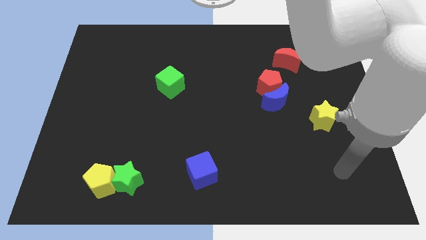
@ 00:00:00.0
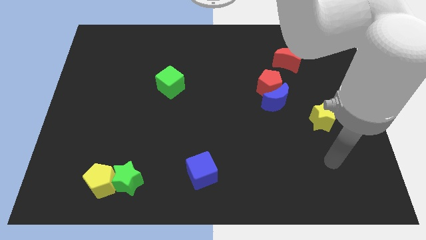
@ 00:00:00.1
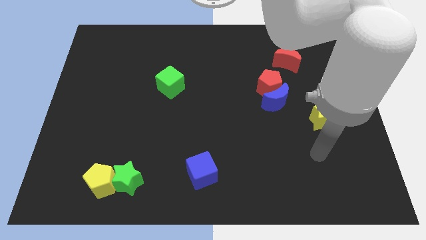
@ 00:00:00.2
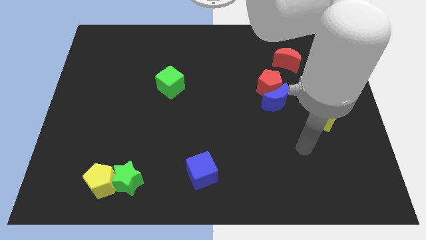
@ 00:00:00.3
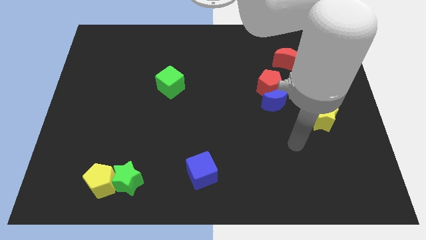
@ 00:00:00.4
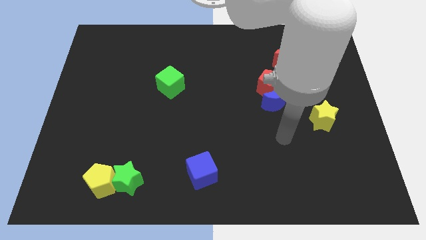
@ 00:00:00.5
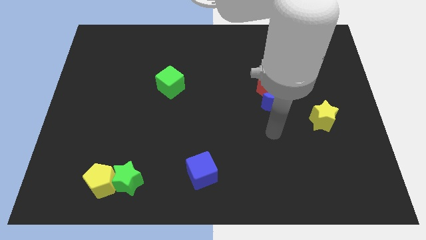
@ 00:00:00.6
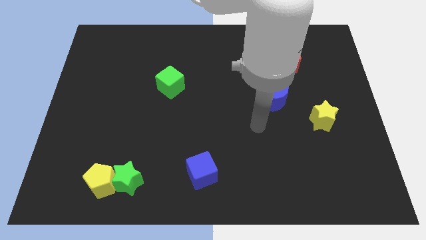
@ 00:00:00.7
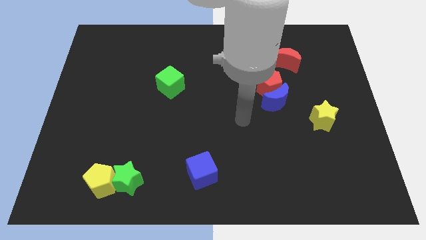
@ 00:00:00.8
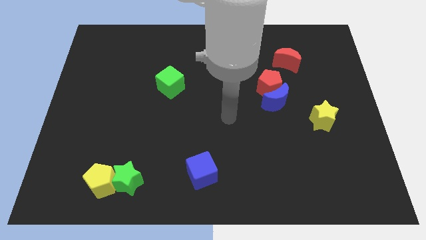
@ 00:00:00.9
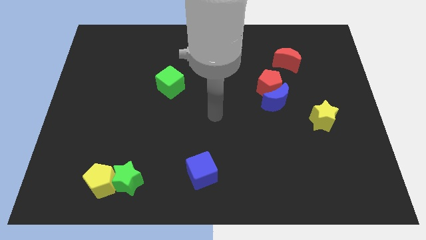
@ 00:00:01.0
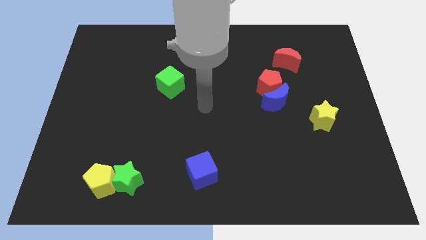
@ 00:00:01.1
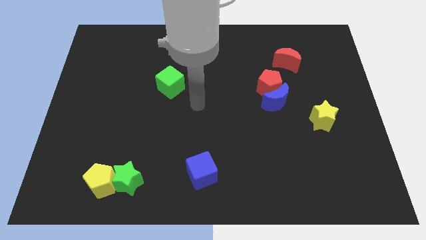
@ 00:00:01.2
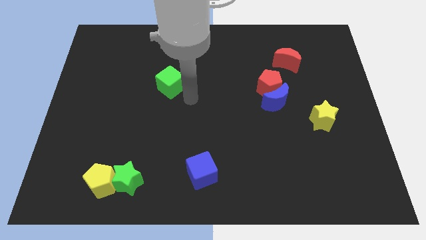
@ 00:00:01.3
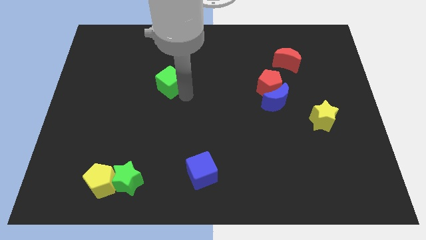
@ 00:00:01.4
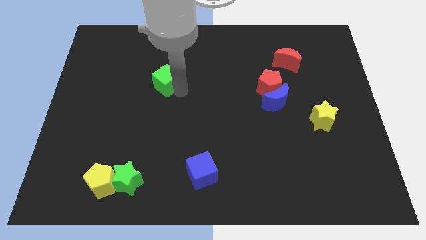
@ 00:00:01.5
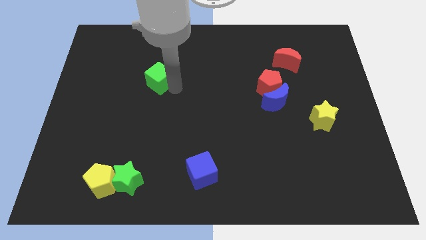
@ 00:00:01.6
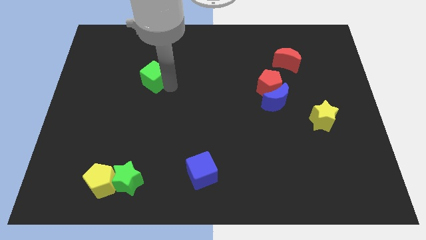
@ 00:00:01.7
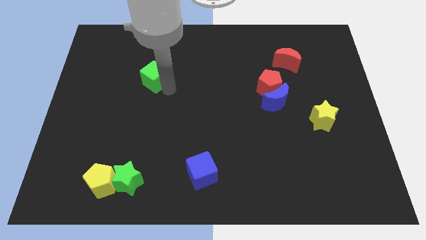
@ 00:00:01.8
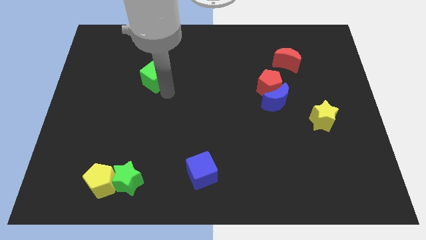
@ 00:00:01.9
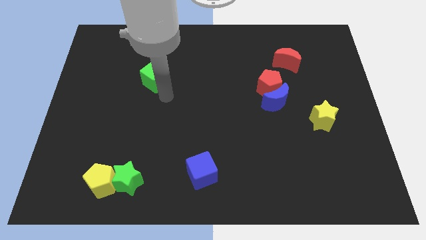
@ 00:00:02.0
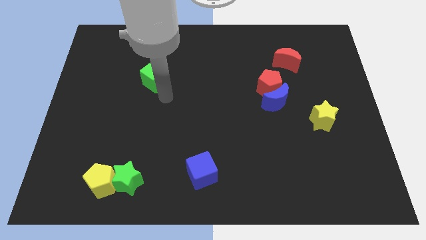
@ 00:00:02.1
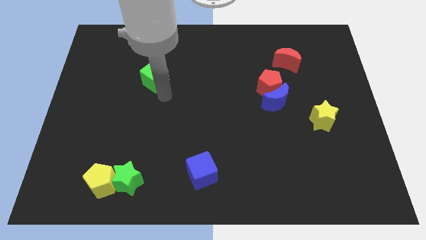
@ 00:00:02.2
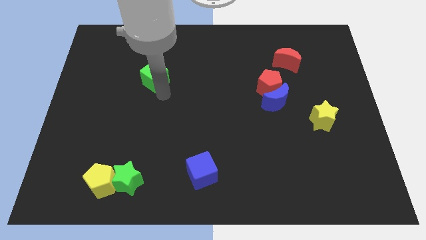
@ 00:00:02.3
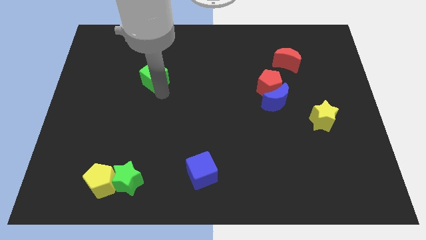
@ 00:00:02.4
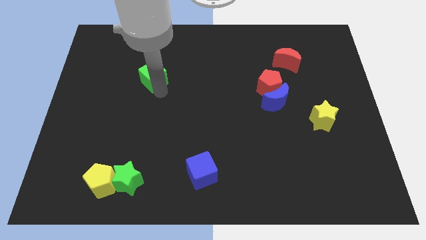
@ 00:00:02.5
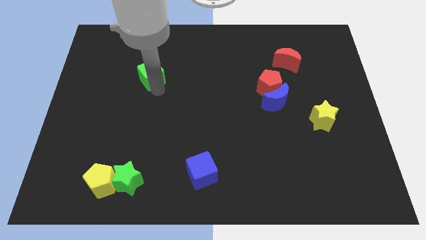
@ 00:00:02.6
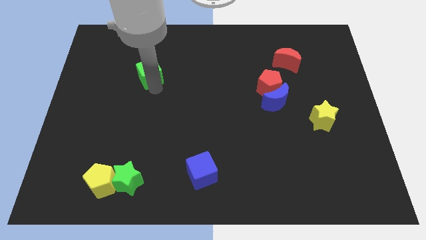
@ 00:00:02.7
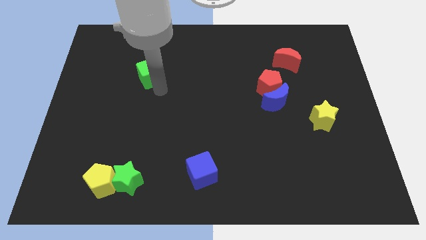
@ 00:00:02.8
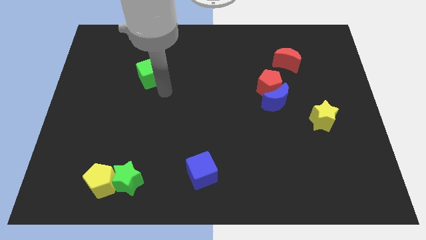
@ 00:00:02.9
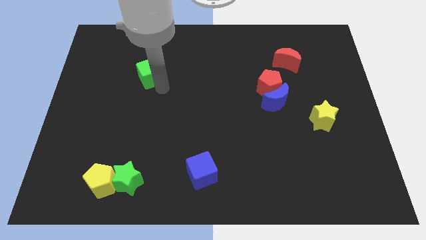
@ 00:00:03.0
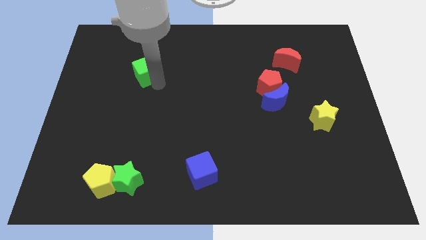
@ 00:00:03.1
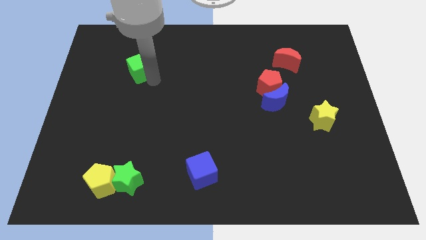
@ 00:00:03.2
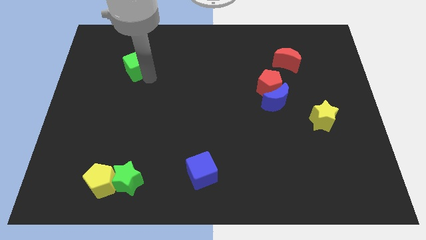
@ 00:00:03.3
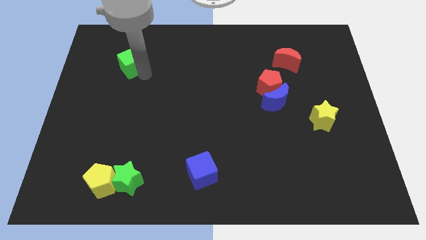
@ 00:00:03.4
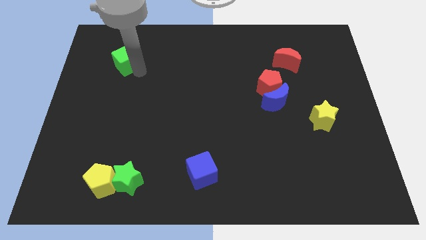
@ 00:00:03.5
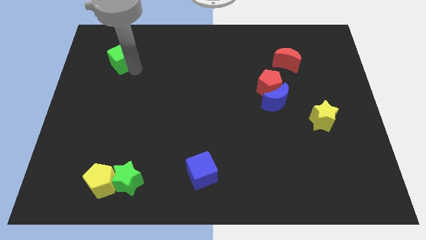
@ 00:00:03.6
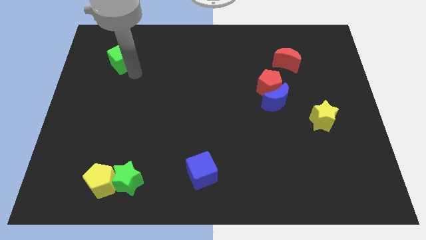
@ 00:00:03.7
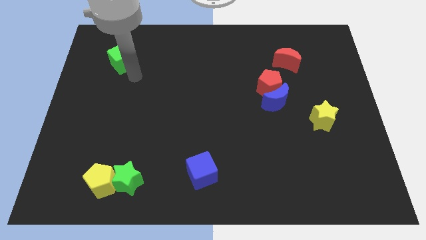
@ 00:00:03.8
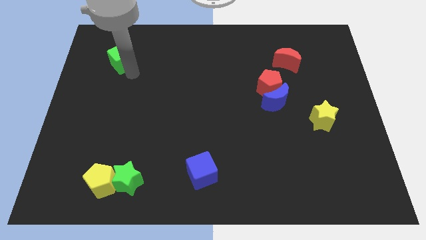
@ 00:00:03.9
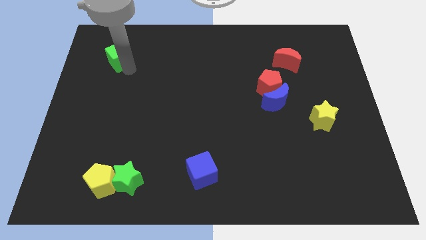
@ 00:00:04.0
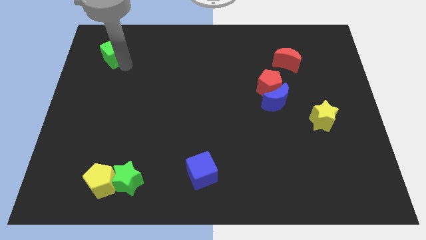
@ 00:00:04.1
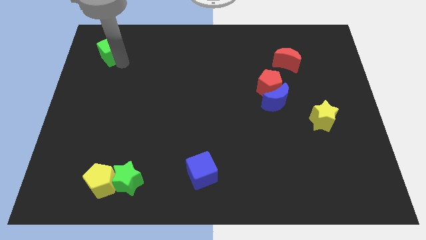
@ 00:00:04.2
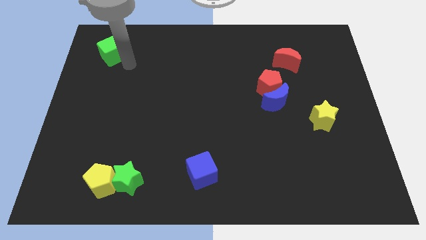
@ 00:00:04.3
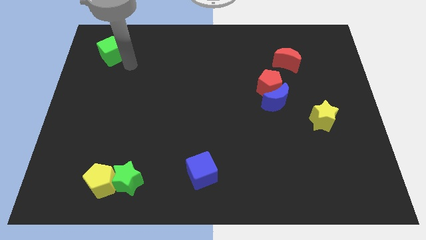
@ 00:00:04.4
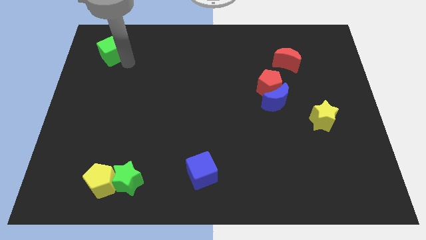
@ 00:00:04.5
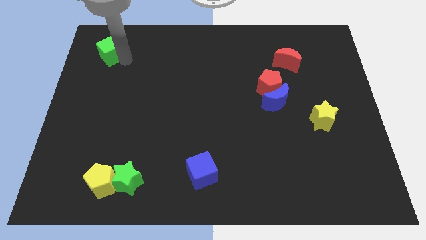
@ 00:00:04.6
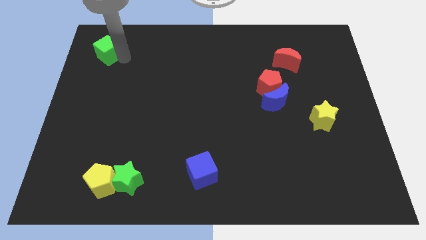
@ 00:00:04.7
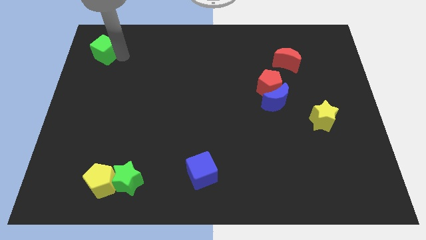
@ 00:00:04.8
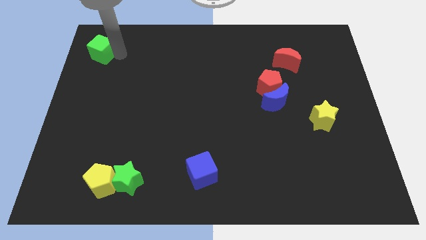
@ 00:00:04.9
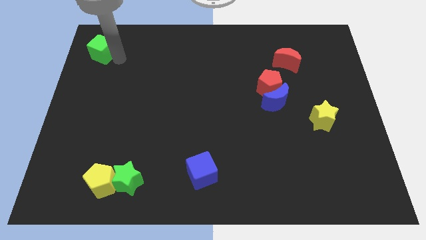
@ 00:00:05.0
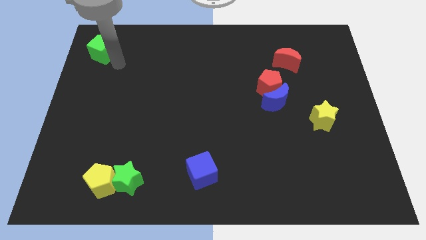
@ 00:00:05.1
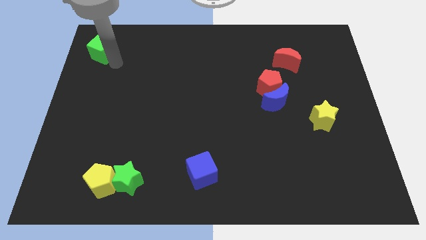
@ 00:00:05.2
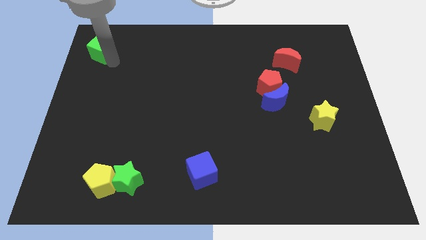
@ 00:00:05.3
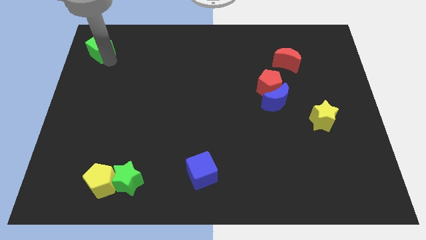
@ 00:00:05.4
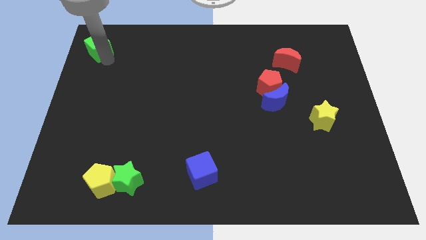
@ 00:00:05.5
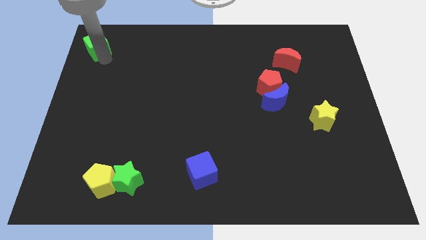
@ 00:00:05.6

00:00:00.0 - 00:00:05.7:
slide the green cube to the top left corner

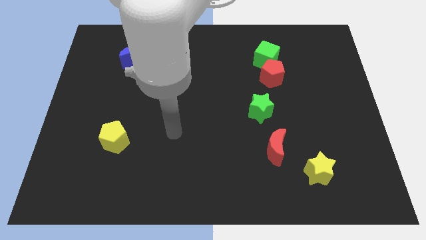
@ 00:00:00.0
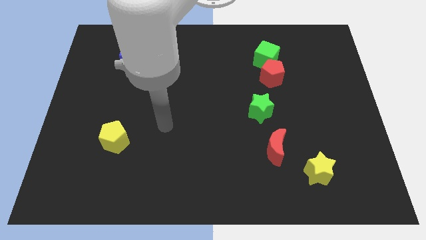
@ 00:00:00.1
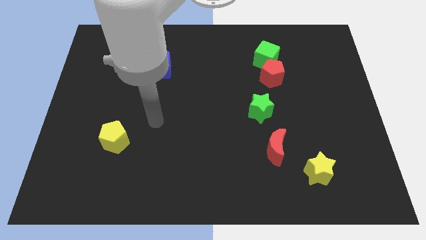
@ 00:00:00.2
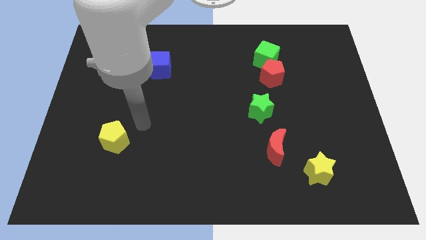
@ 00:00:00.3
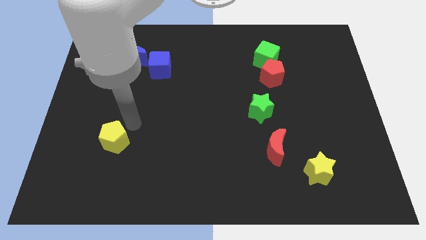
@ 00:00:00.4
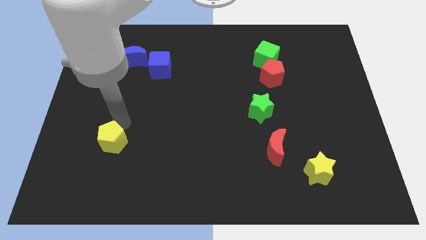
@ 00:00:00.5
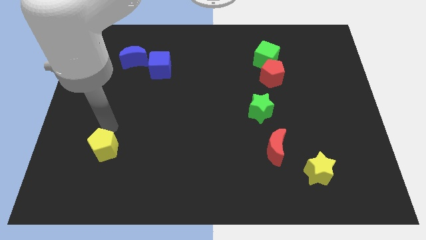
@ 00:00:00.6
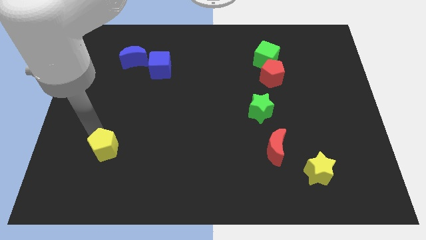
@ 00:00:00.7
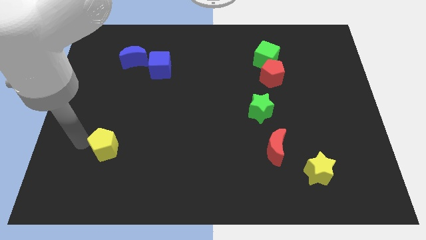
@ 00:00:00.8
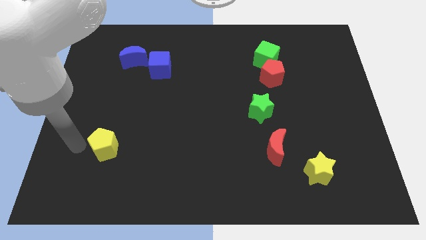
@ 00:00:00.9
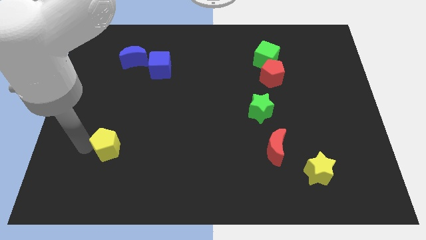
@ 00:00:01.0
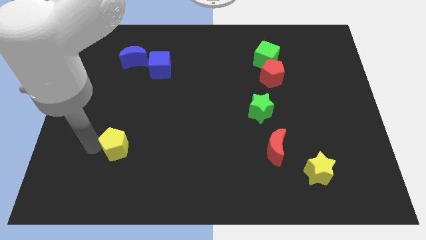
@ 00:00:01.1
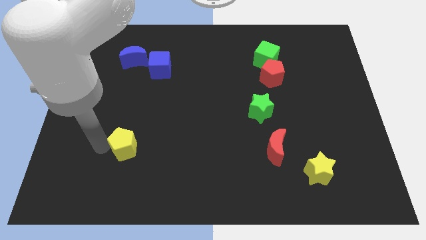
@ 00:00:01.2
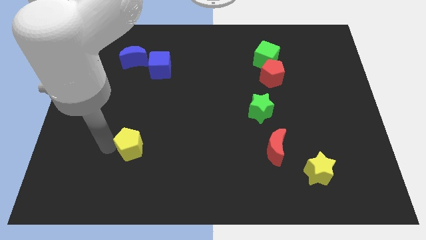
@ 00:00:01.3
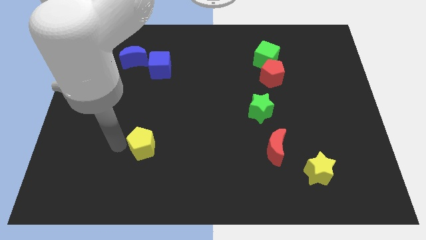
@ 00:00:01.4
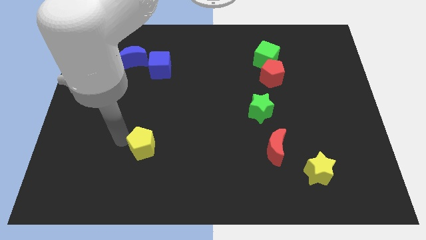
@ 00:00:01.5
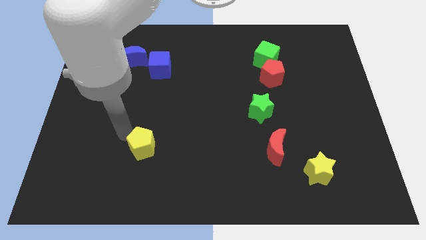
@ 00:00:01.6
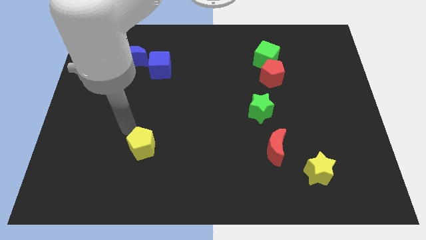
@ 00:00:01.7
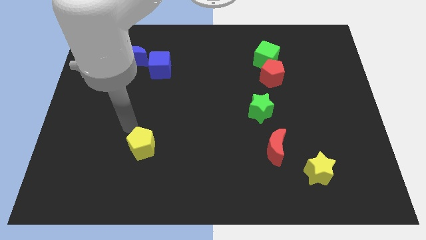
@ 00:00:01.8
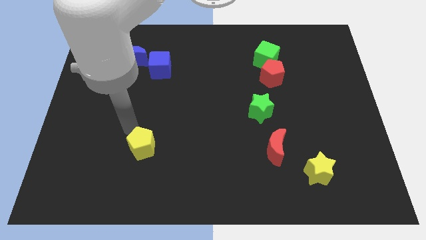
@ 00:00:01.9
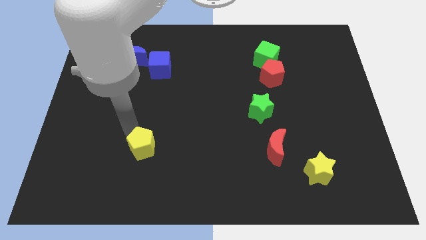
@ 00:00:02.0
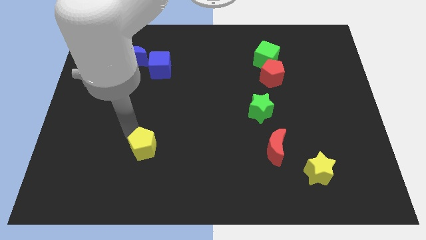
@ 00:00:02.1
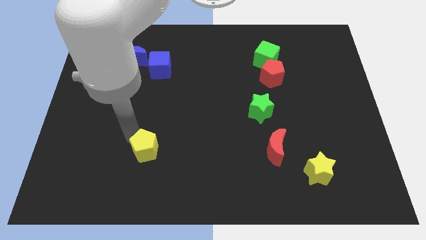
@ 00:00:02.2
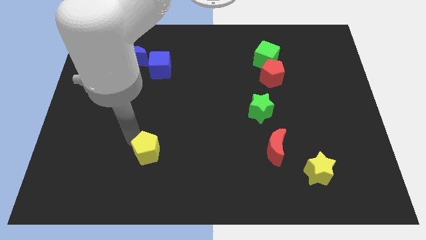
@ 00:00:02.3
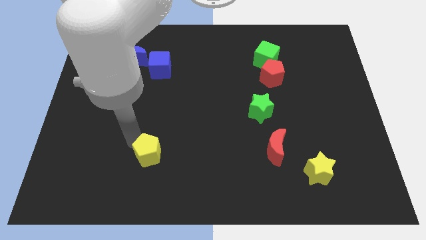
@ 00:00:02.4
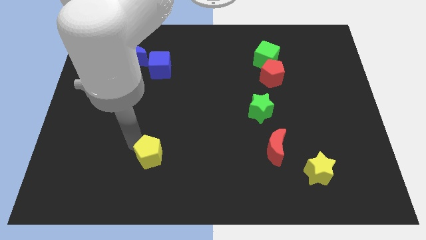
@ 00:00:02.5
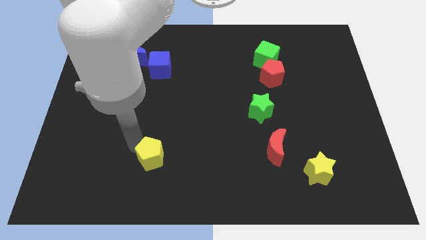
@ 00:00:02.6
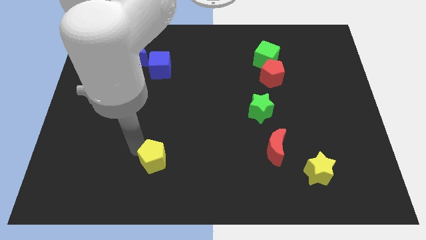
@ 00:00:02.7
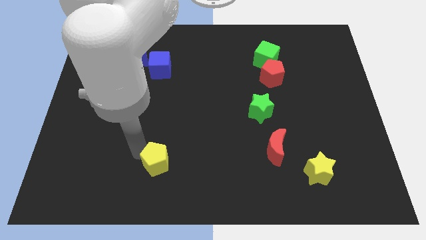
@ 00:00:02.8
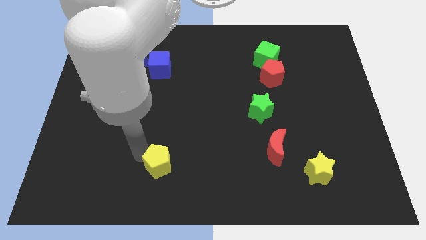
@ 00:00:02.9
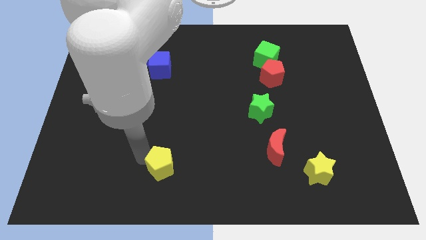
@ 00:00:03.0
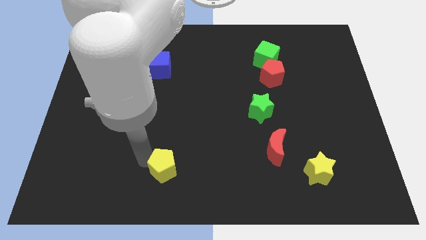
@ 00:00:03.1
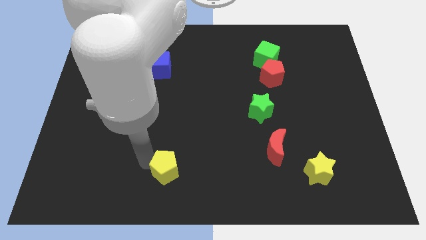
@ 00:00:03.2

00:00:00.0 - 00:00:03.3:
move the yellow pentagon to the bottom
